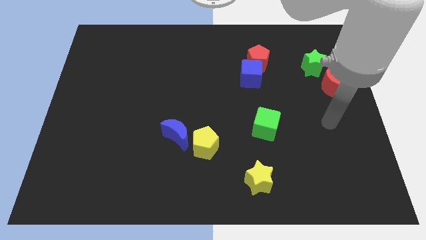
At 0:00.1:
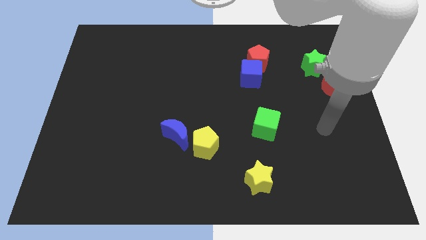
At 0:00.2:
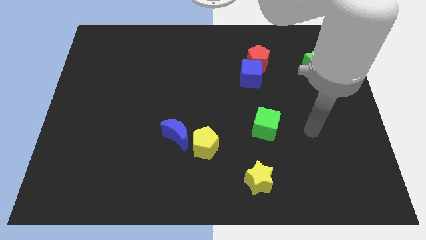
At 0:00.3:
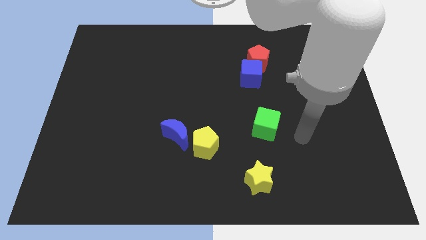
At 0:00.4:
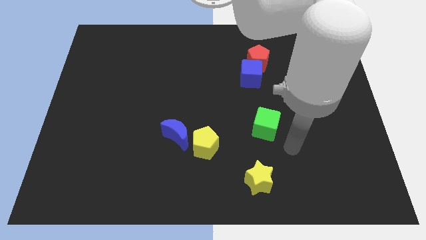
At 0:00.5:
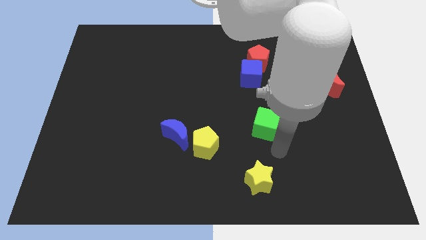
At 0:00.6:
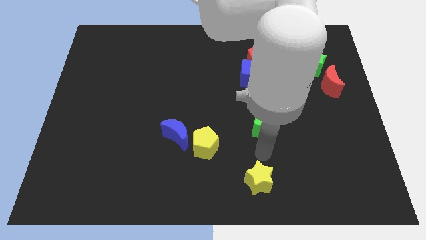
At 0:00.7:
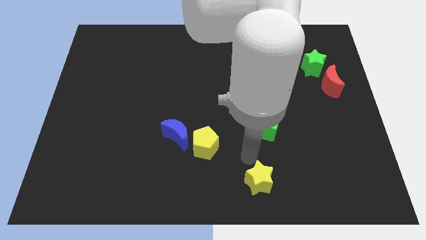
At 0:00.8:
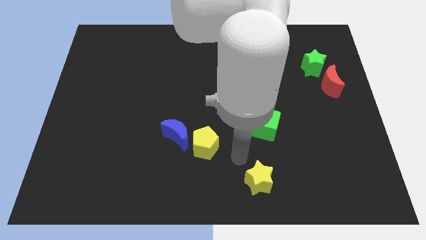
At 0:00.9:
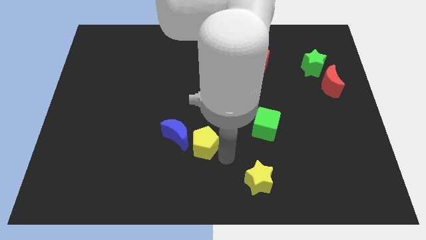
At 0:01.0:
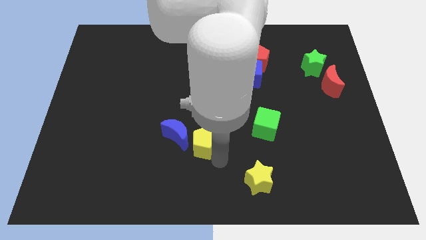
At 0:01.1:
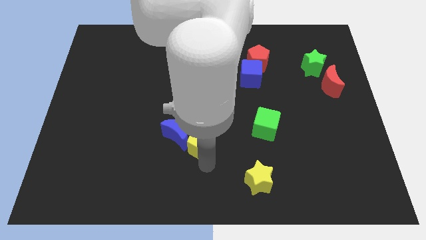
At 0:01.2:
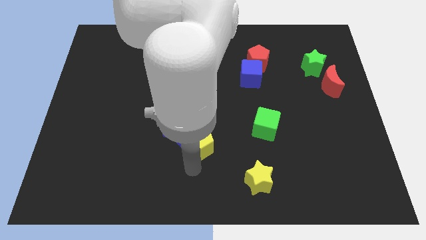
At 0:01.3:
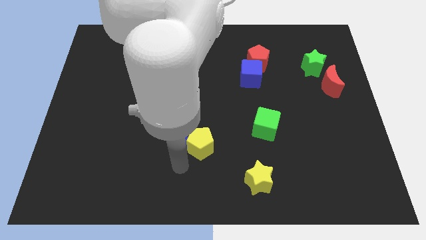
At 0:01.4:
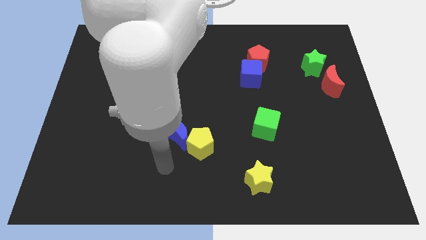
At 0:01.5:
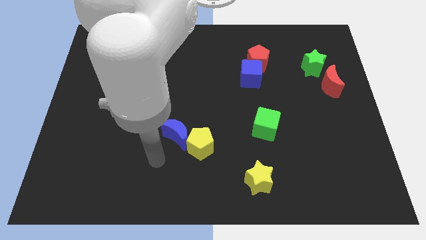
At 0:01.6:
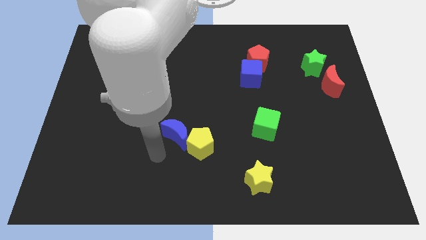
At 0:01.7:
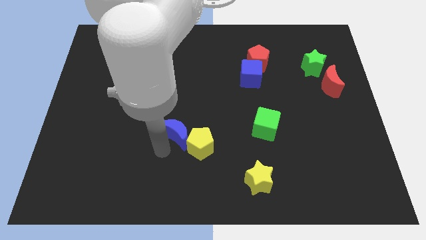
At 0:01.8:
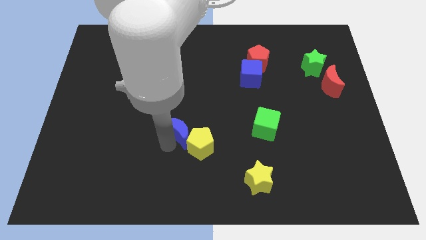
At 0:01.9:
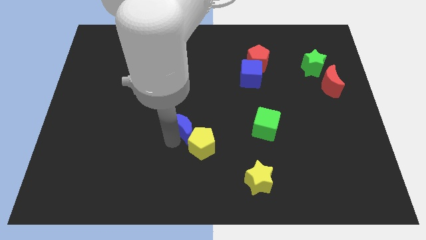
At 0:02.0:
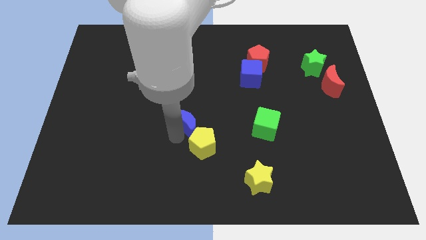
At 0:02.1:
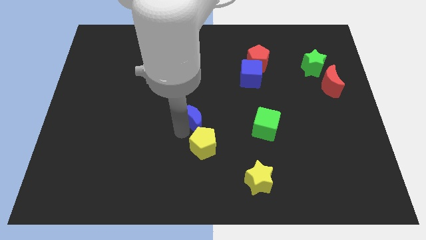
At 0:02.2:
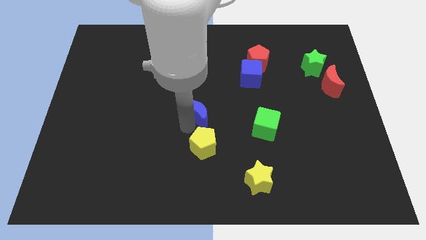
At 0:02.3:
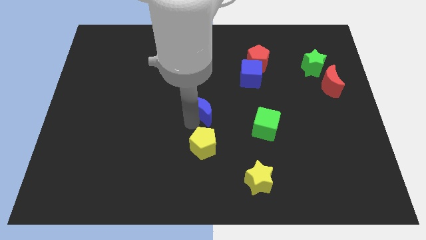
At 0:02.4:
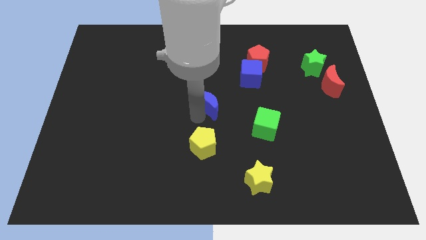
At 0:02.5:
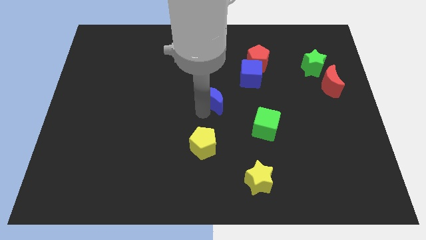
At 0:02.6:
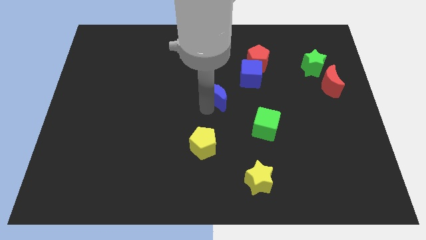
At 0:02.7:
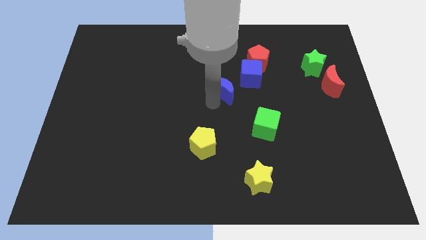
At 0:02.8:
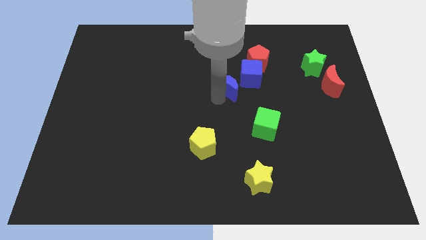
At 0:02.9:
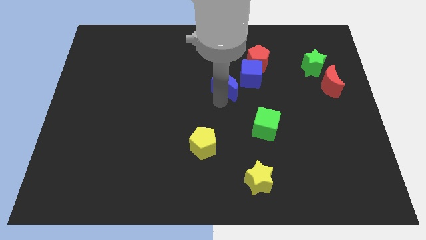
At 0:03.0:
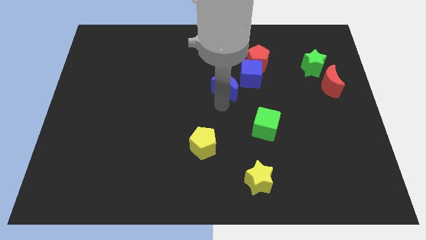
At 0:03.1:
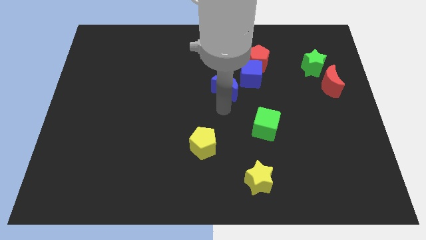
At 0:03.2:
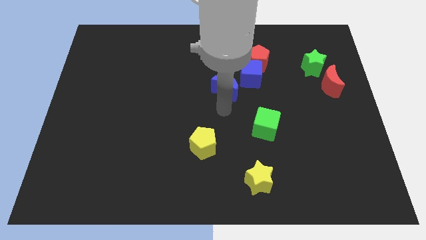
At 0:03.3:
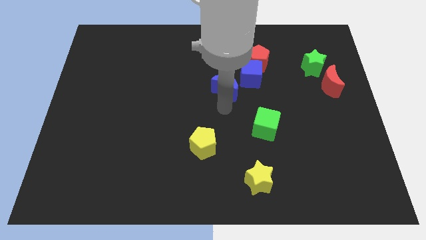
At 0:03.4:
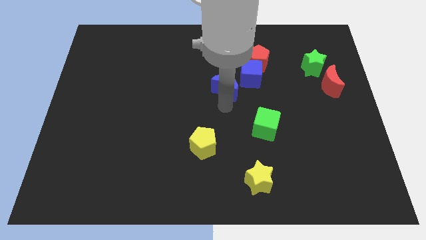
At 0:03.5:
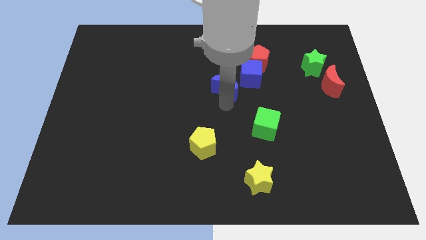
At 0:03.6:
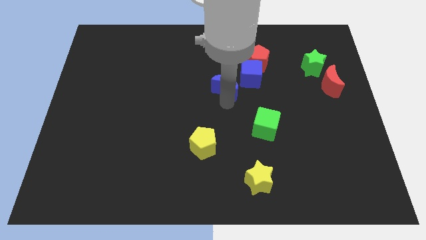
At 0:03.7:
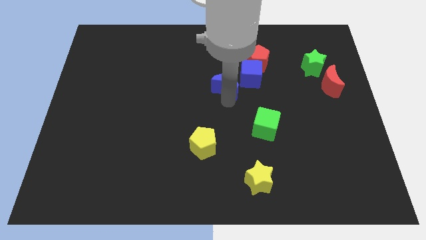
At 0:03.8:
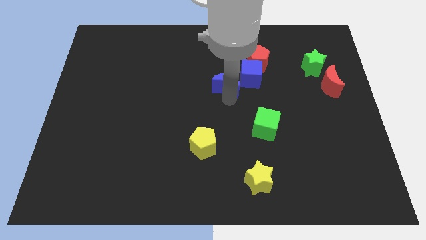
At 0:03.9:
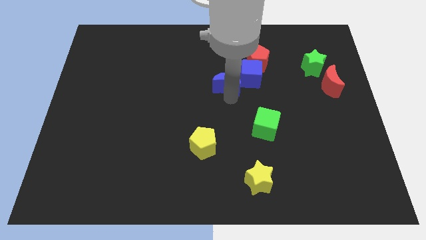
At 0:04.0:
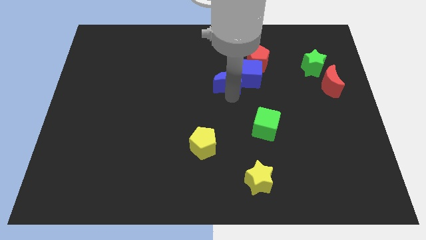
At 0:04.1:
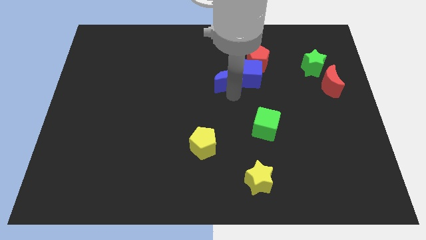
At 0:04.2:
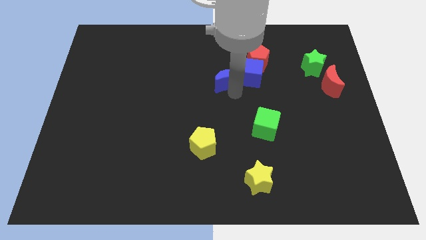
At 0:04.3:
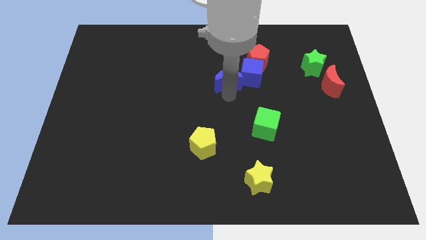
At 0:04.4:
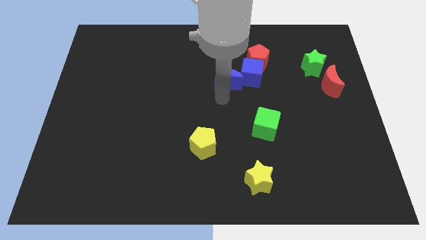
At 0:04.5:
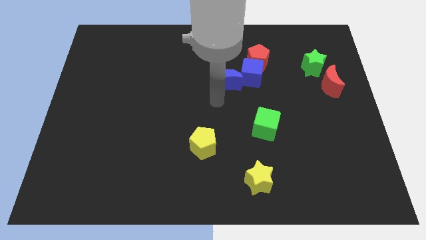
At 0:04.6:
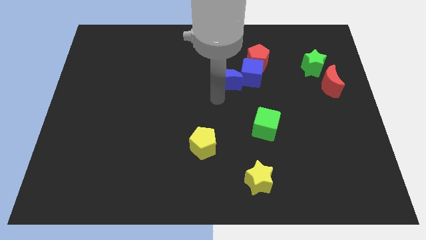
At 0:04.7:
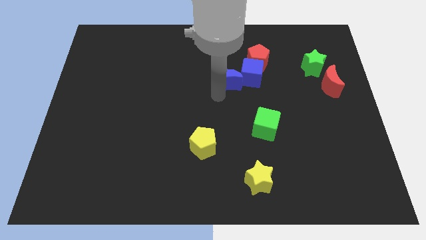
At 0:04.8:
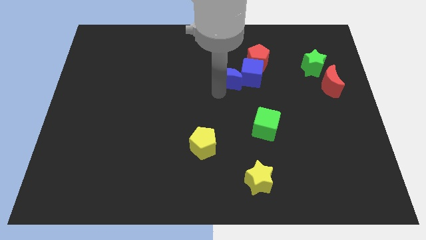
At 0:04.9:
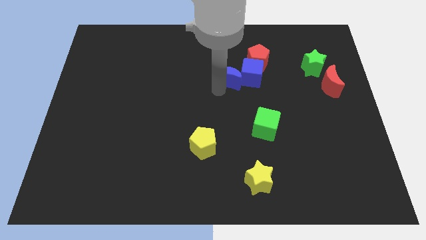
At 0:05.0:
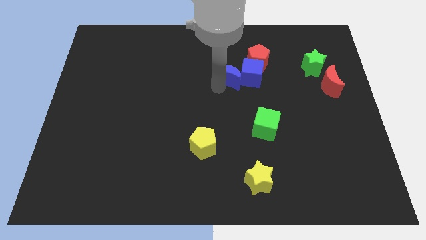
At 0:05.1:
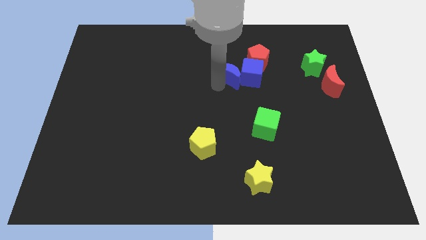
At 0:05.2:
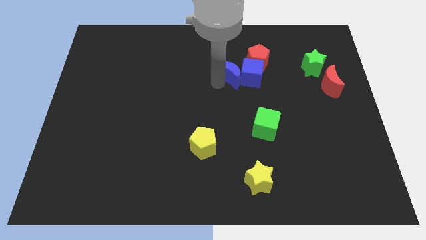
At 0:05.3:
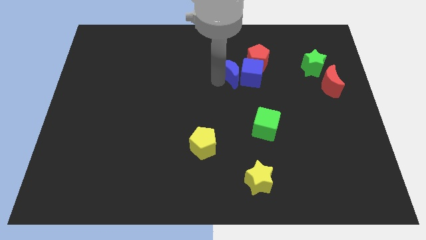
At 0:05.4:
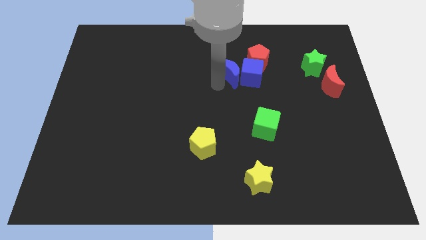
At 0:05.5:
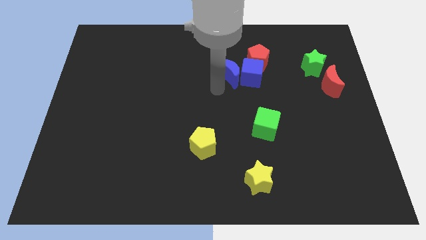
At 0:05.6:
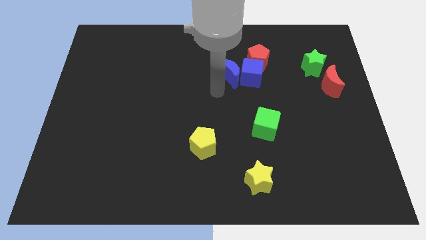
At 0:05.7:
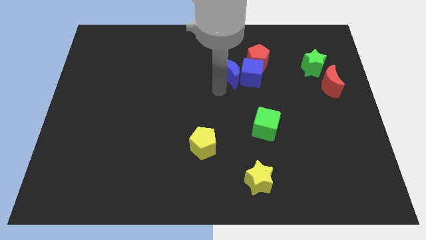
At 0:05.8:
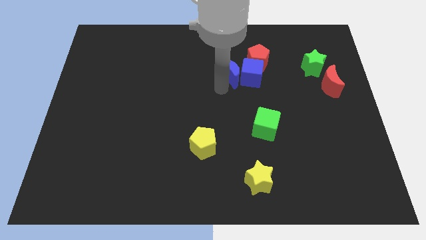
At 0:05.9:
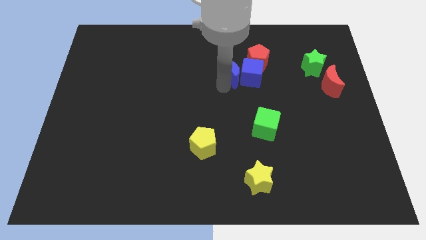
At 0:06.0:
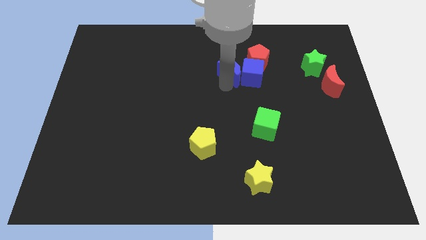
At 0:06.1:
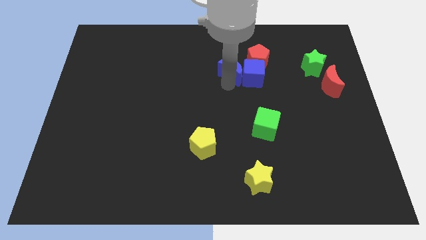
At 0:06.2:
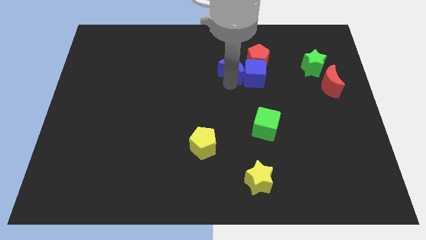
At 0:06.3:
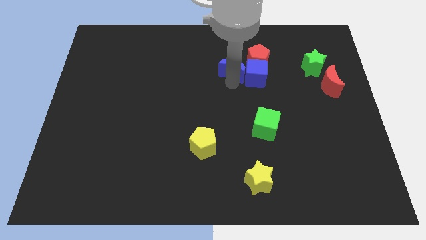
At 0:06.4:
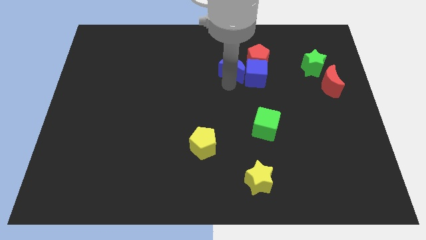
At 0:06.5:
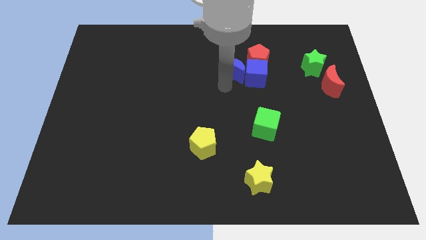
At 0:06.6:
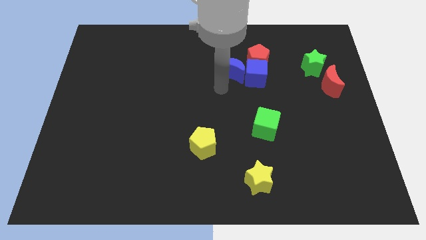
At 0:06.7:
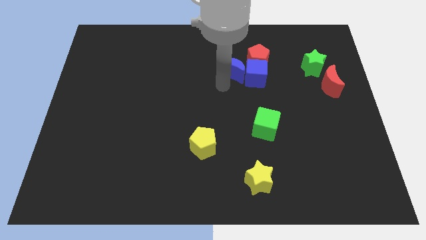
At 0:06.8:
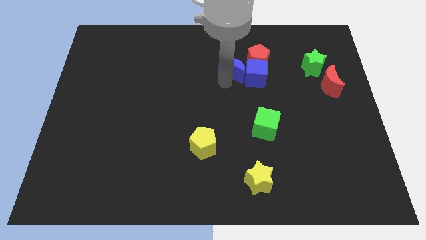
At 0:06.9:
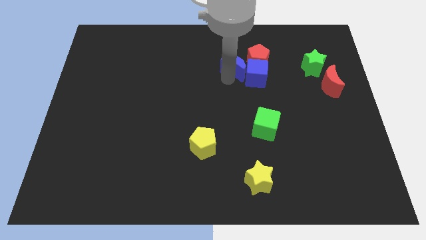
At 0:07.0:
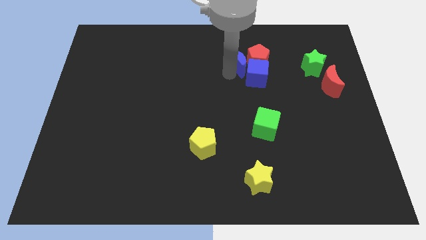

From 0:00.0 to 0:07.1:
put the blue moon towards the red pentagon
